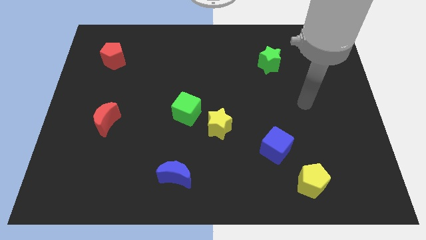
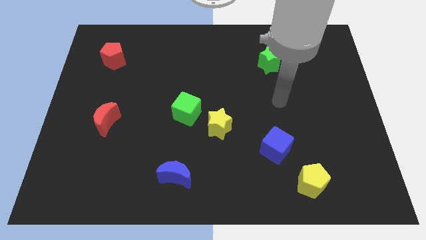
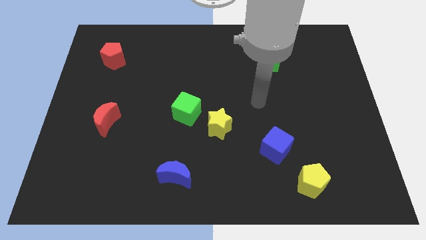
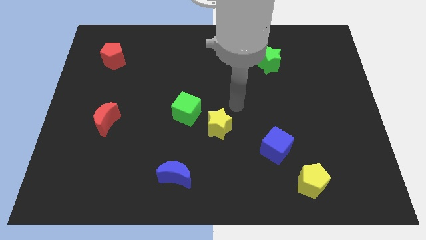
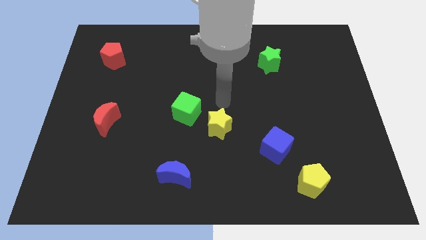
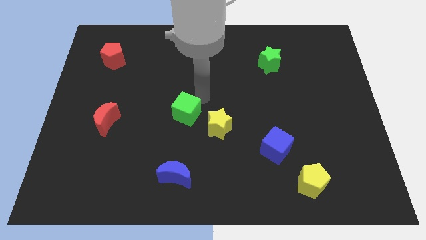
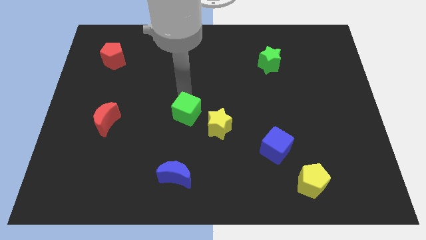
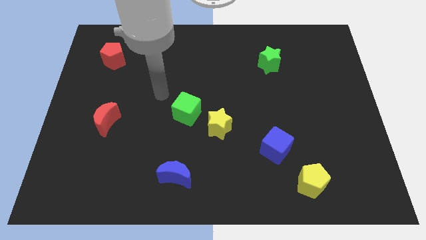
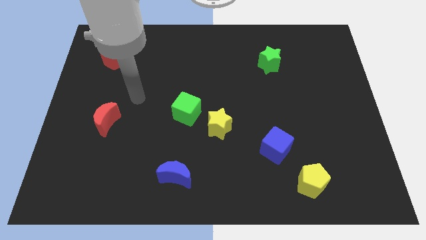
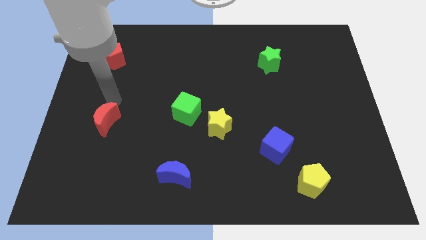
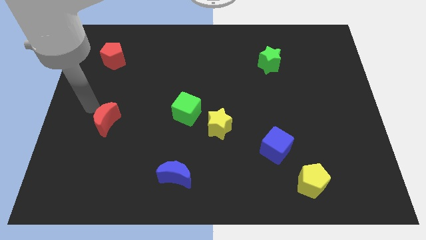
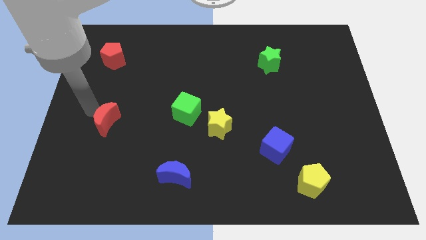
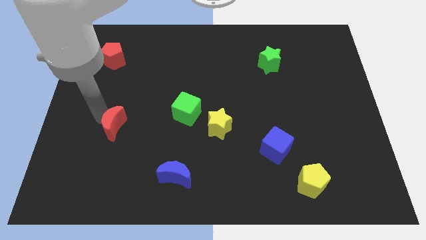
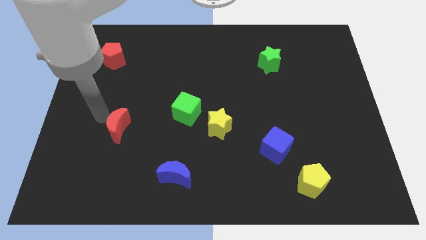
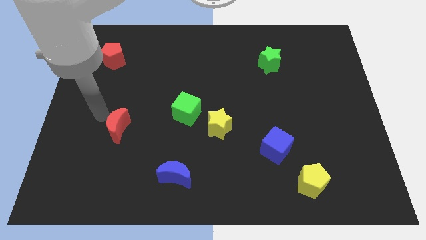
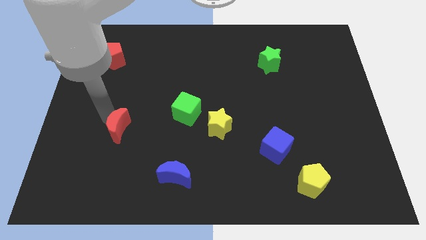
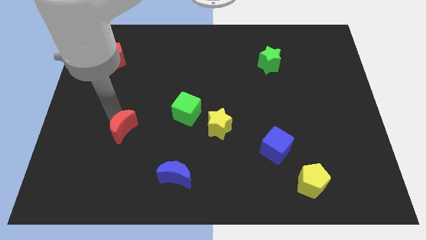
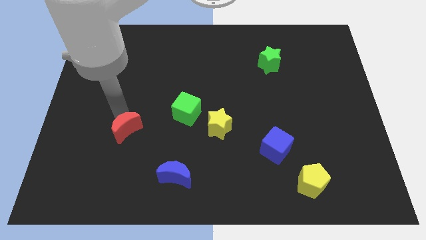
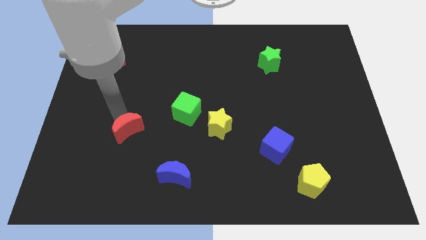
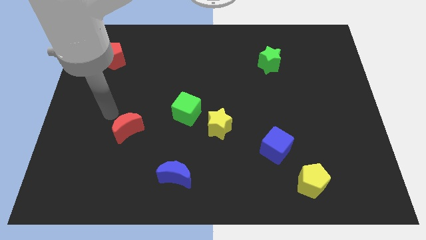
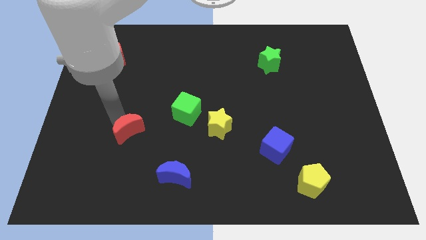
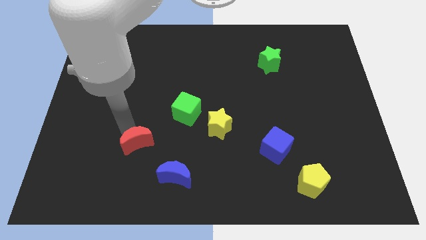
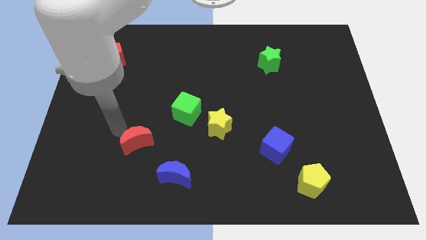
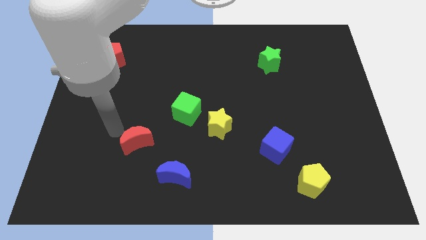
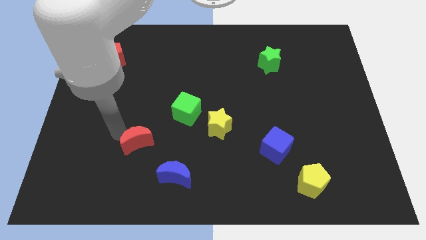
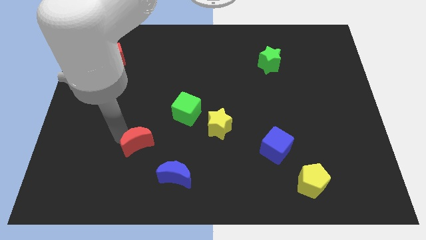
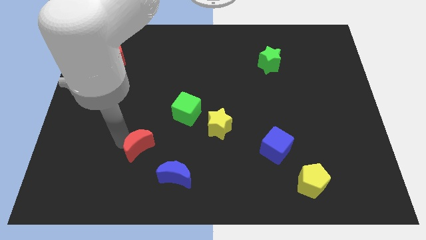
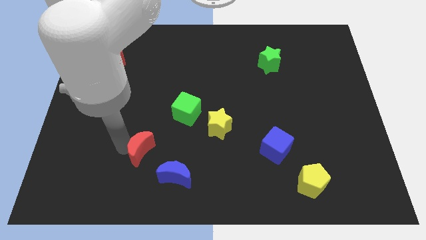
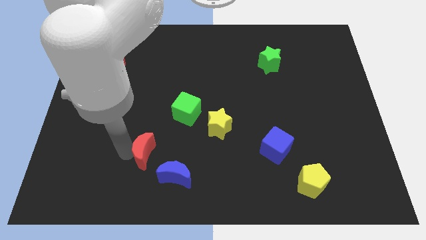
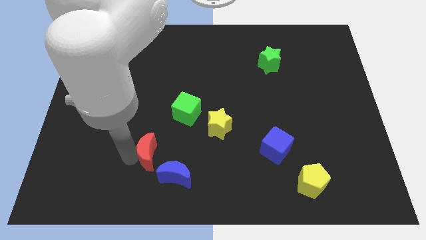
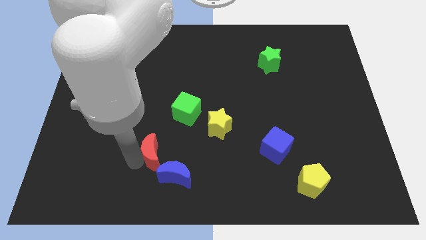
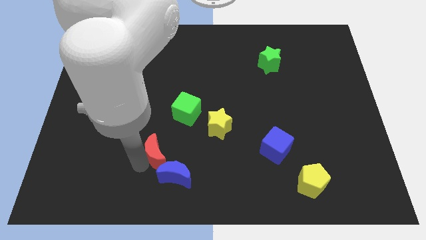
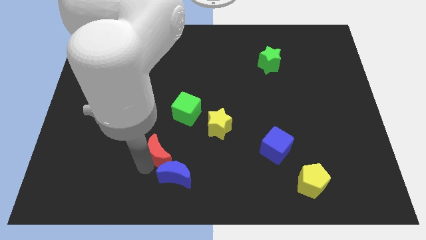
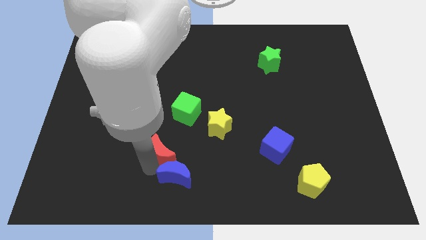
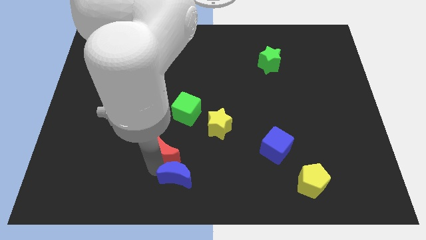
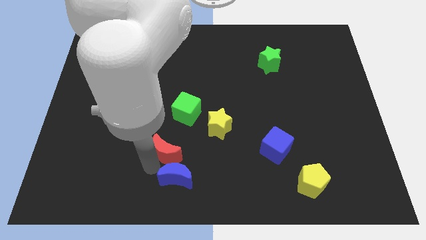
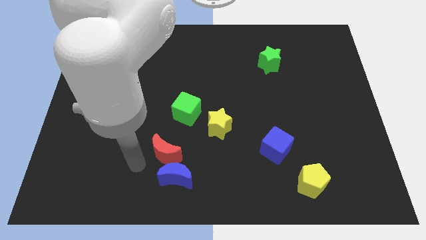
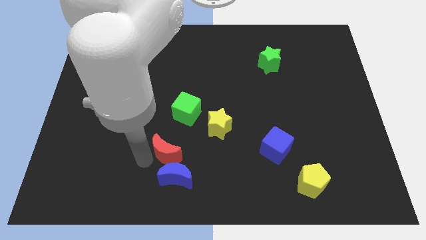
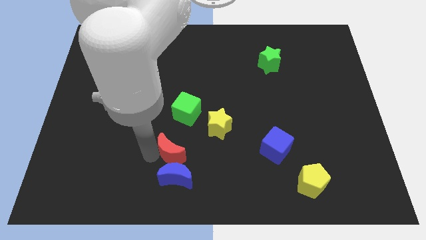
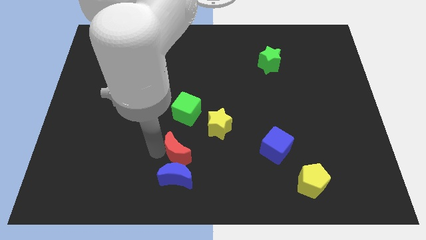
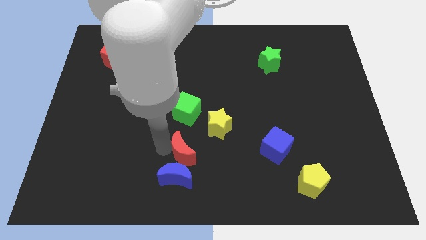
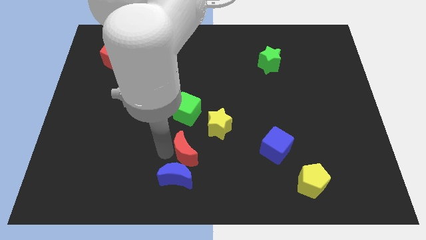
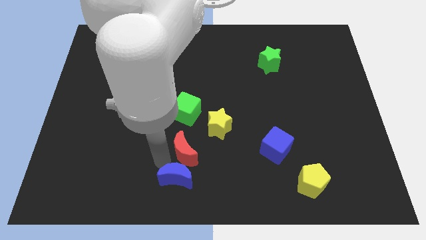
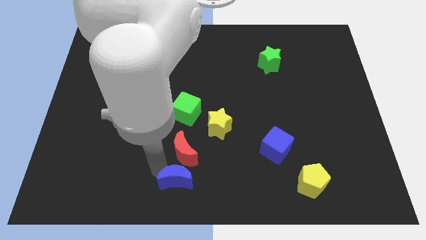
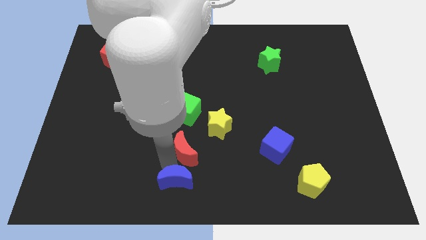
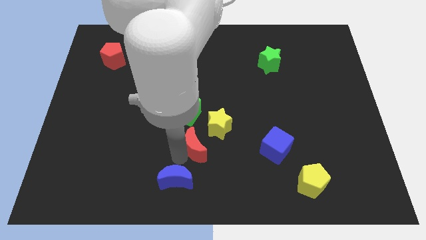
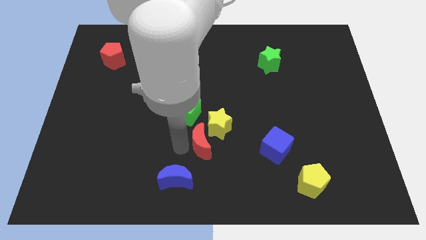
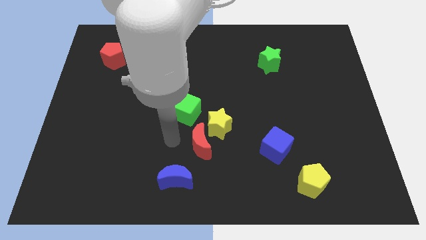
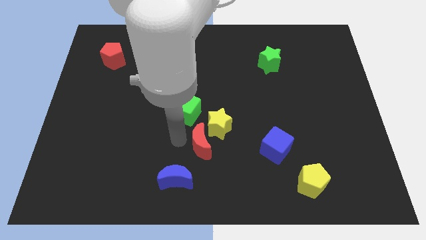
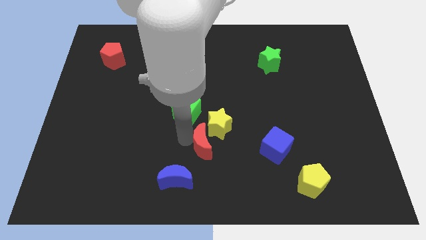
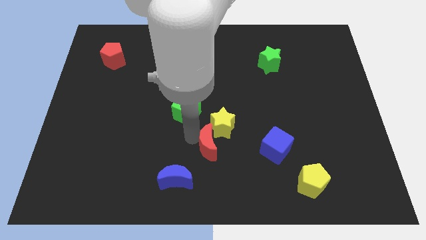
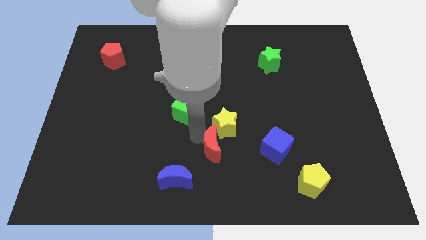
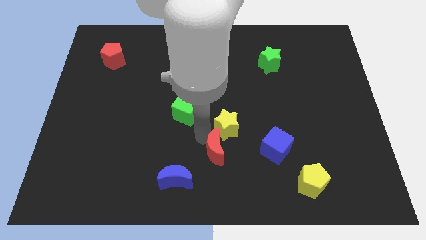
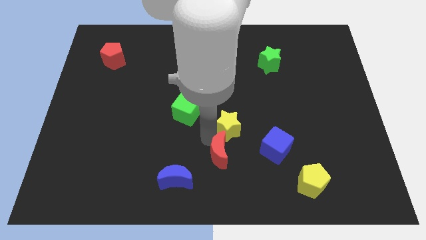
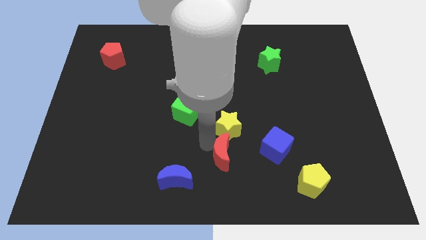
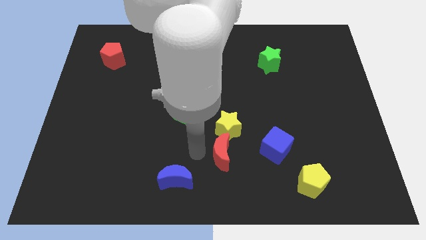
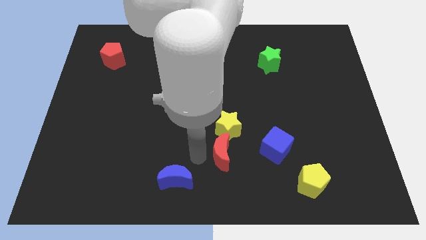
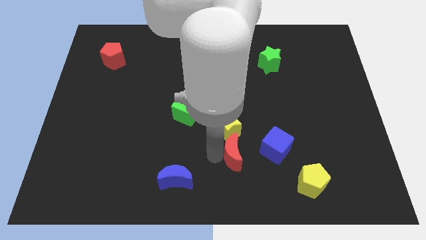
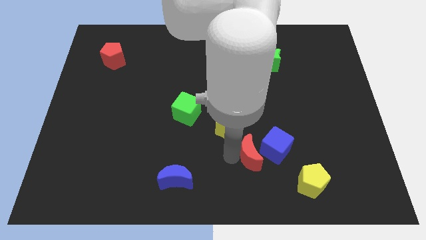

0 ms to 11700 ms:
move the red moon next to the blue cube

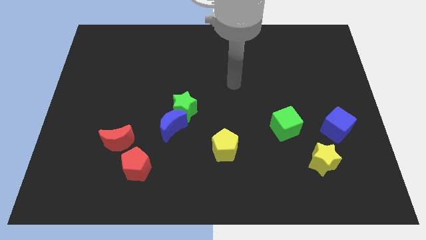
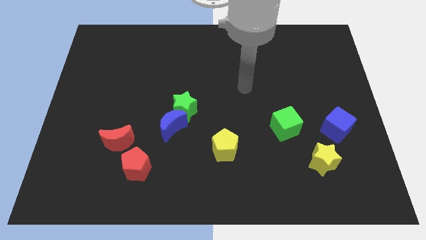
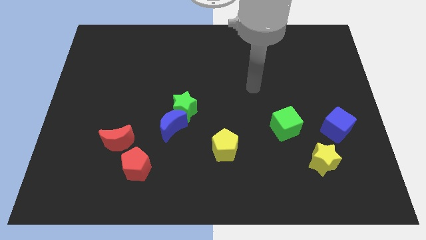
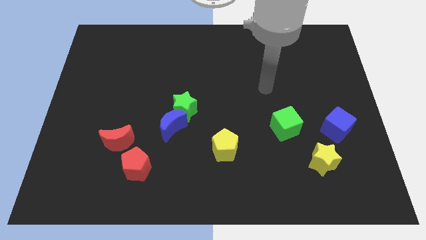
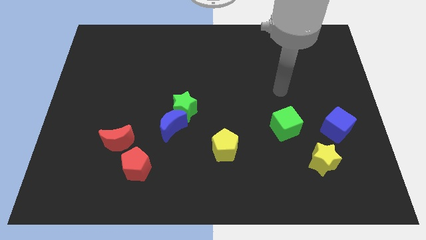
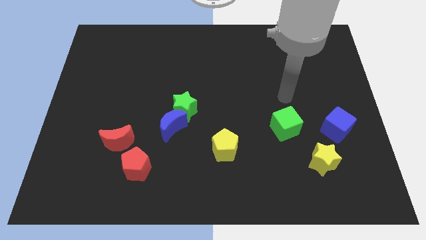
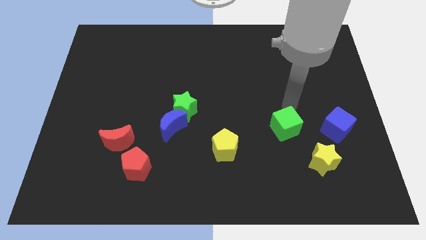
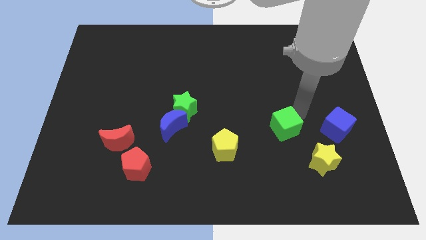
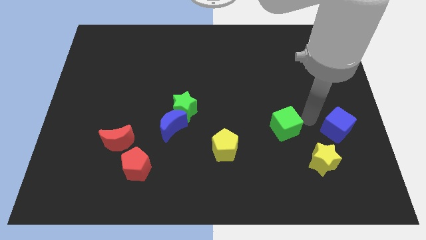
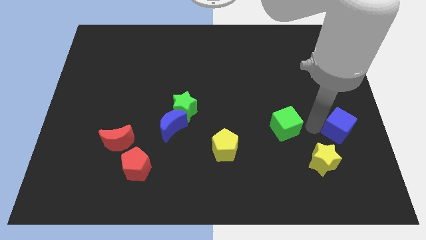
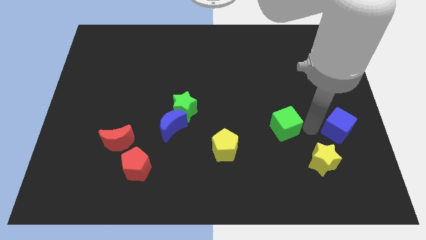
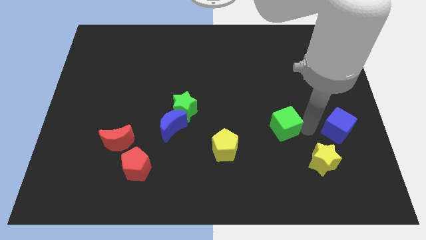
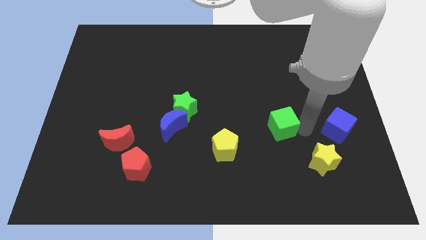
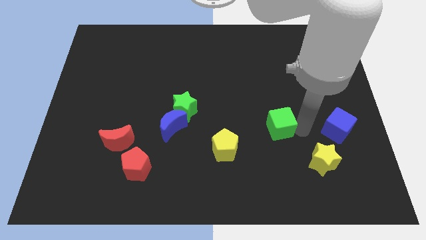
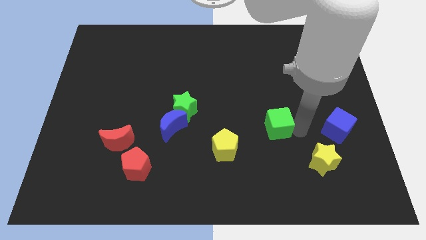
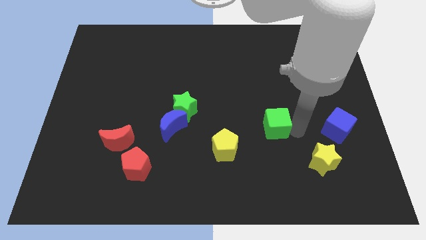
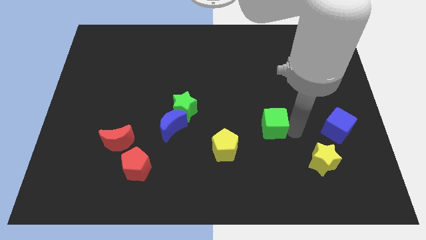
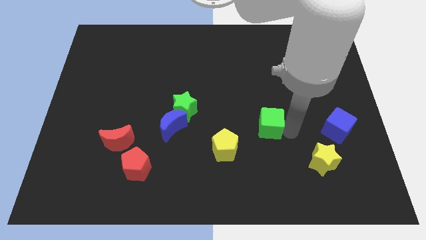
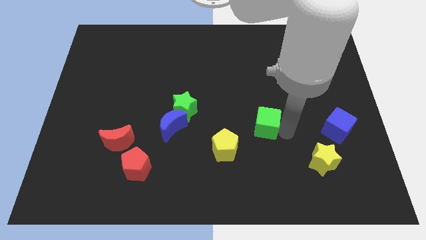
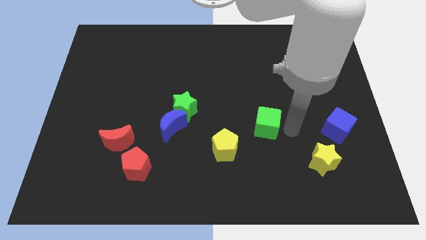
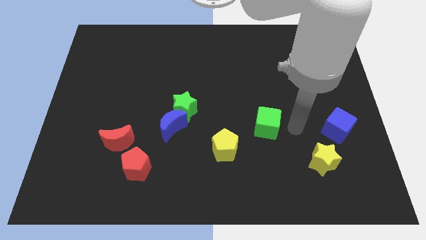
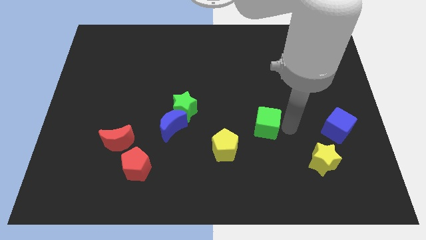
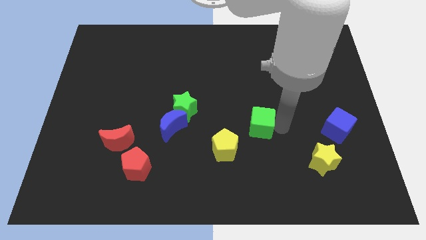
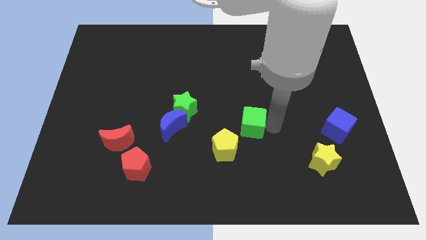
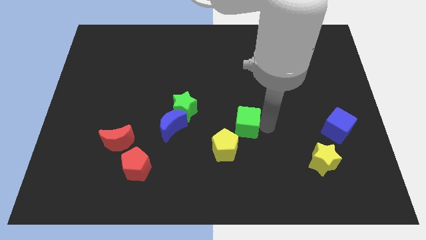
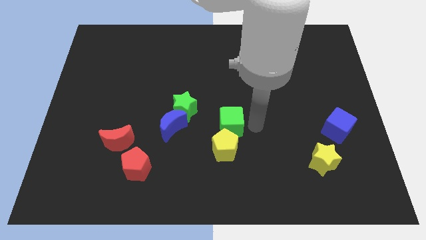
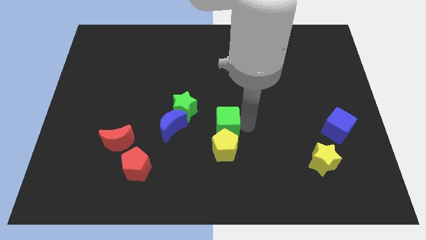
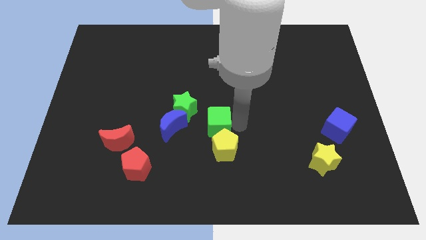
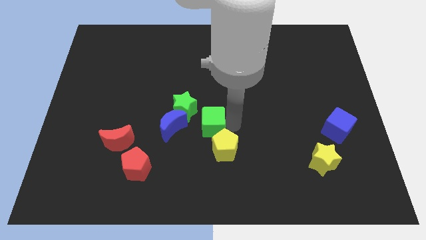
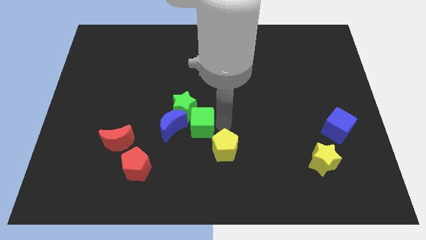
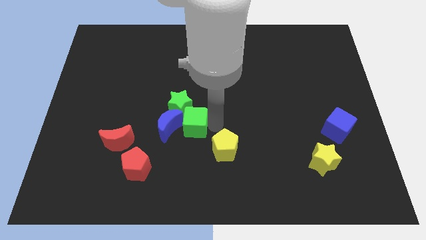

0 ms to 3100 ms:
move the green cube close to the blue moon
